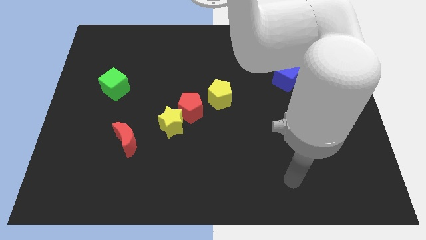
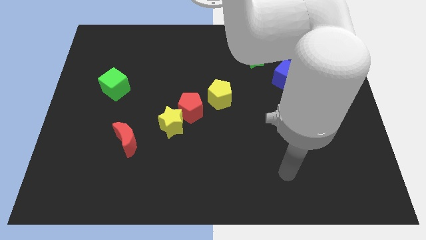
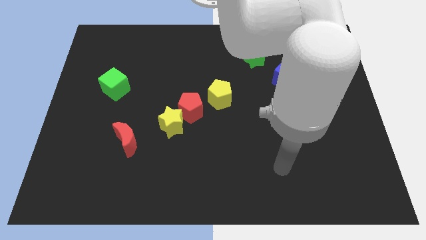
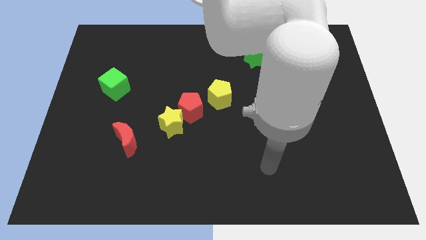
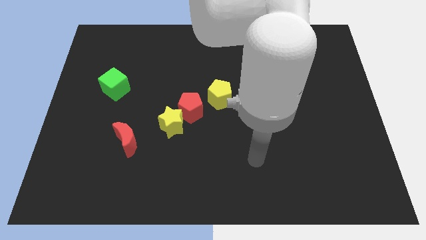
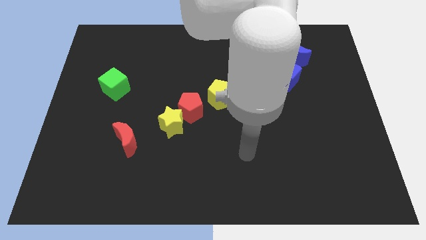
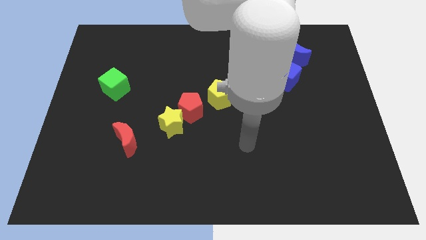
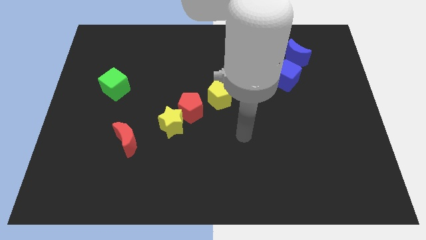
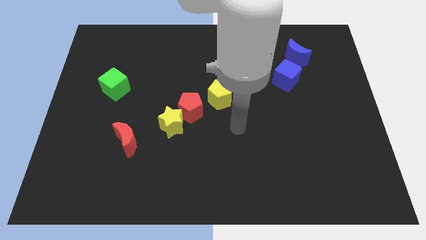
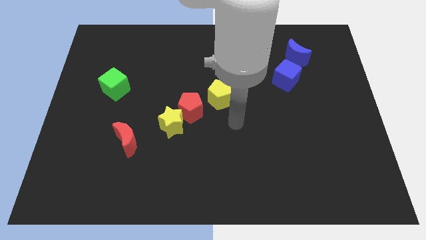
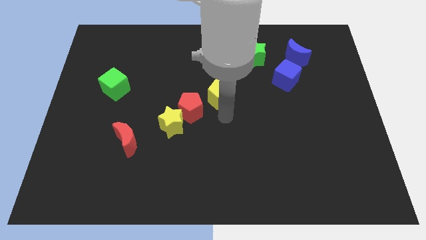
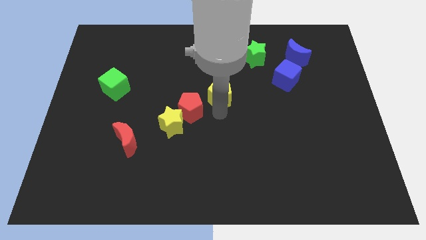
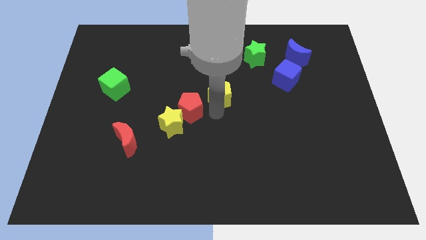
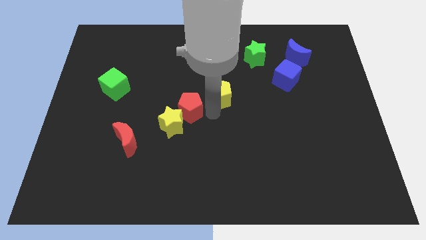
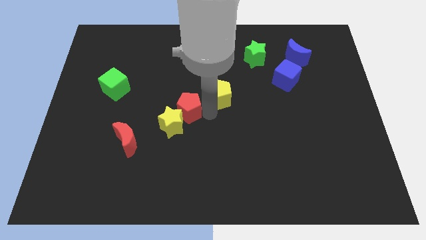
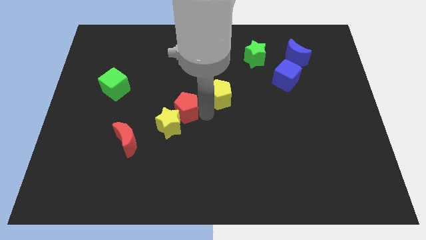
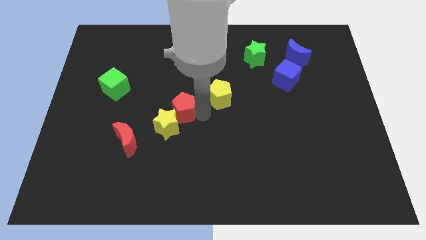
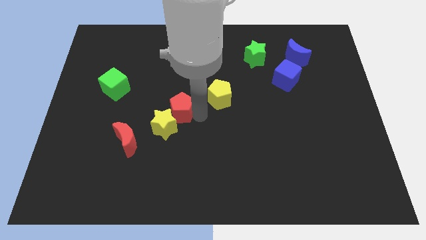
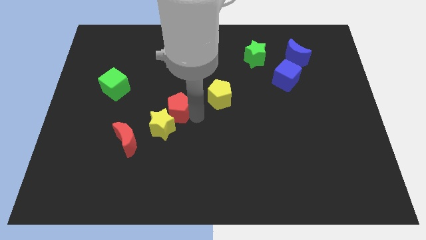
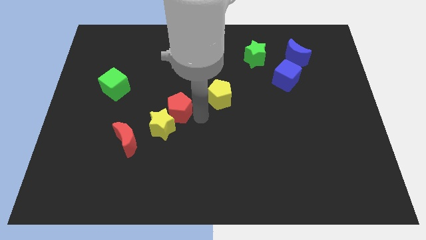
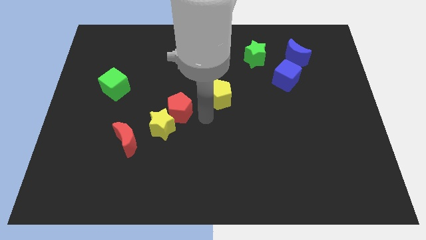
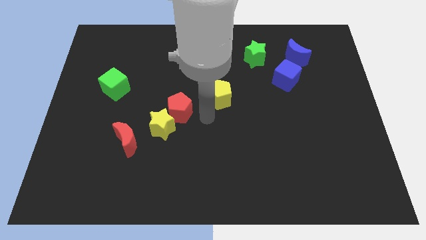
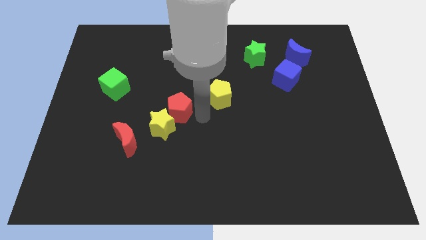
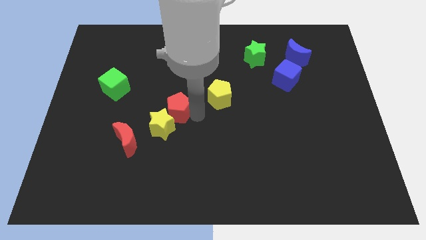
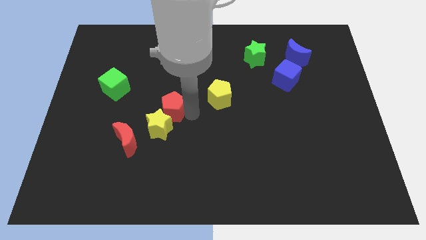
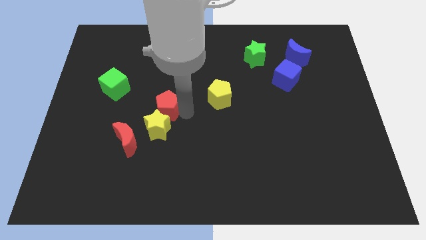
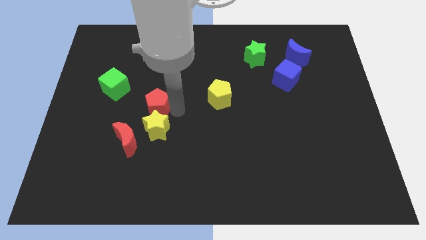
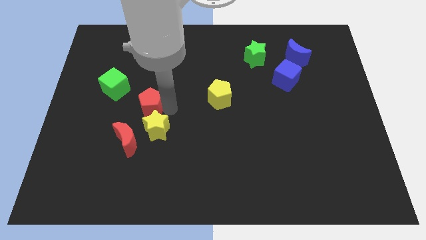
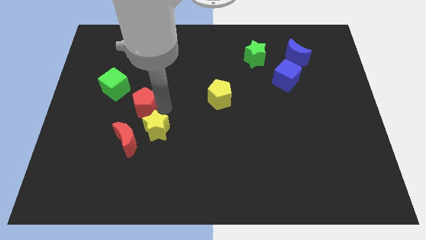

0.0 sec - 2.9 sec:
separate the red pentagon from the yellow star and yellow pentagon

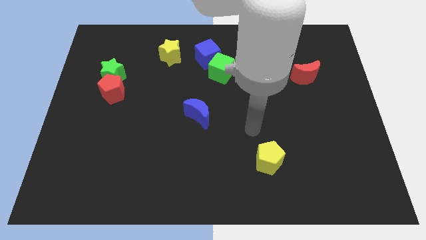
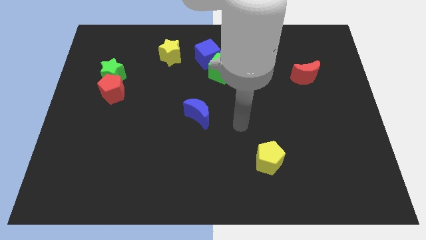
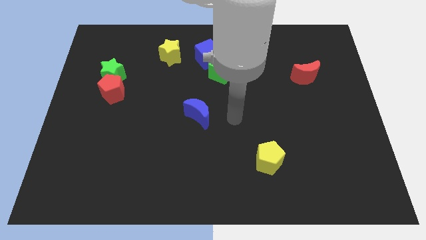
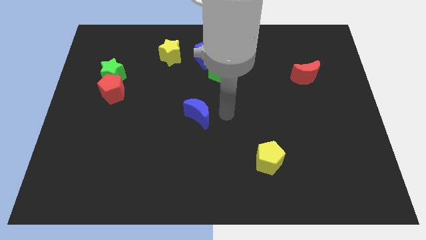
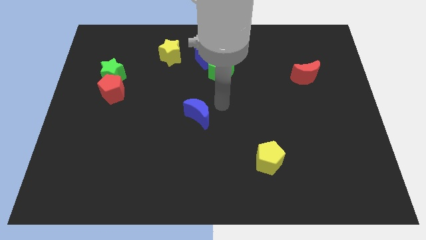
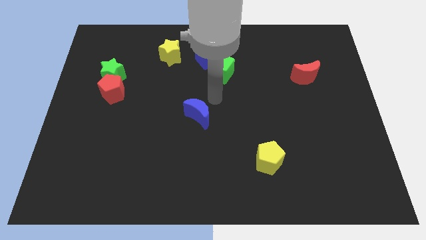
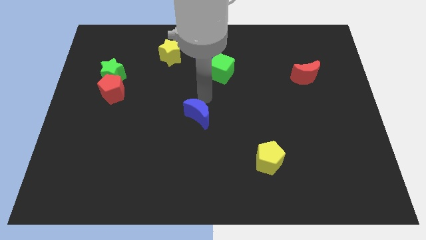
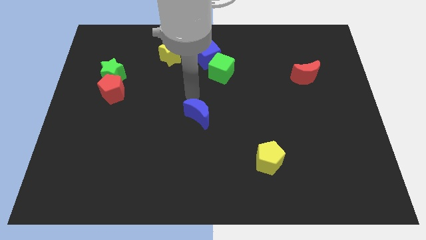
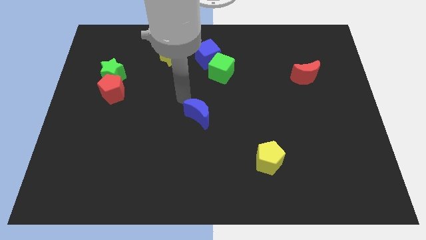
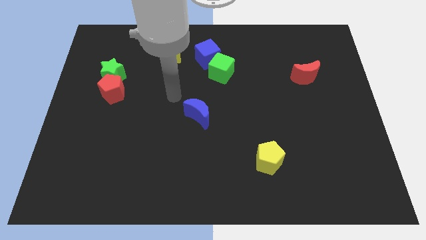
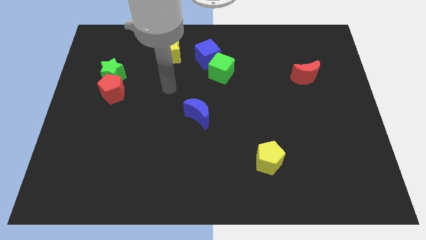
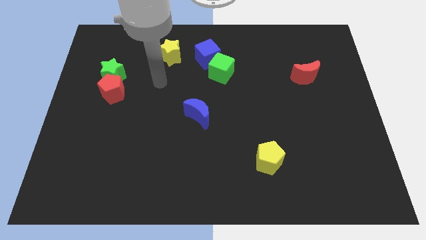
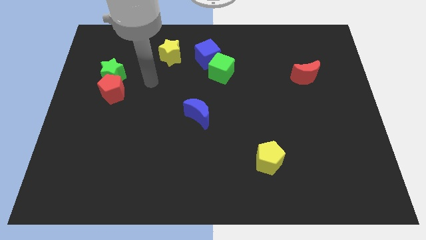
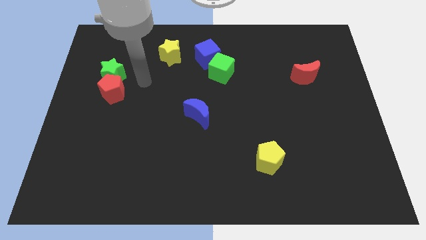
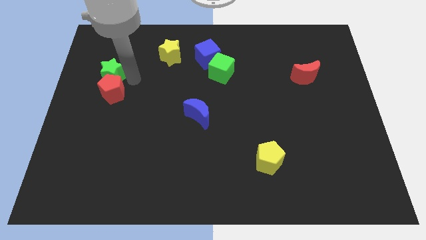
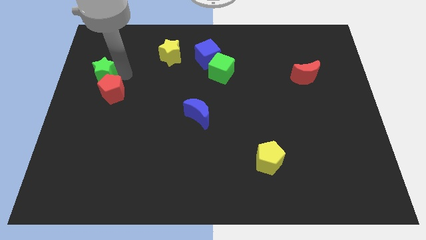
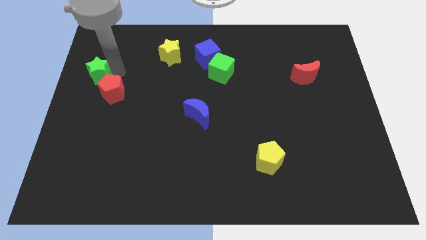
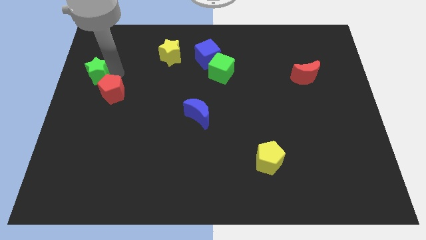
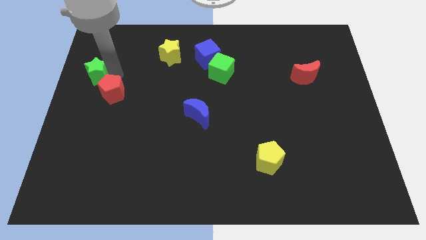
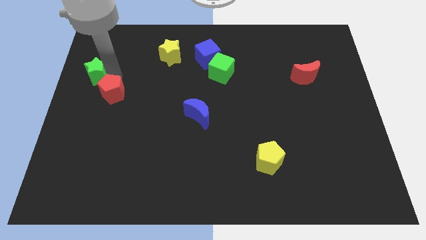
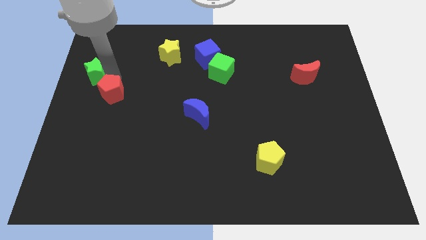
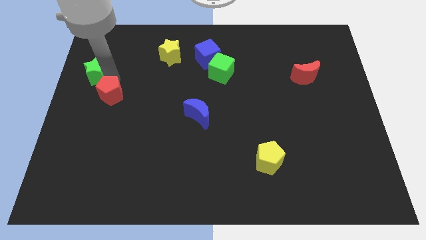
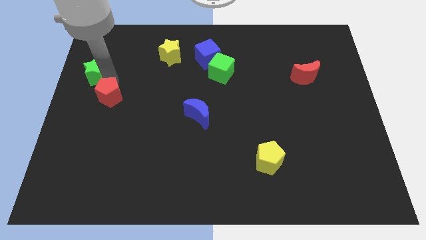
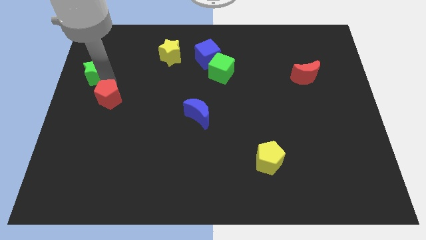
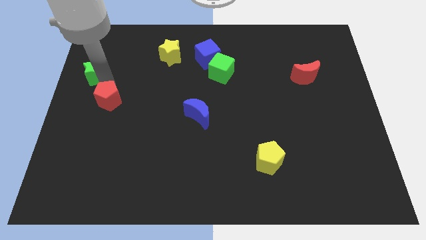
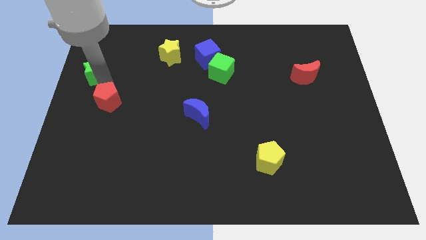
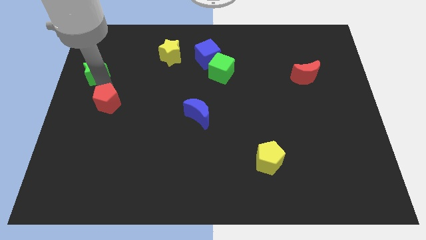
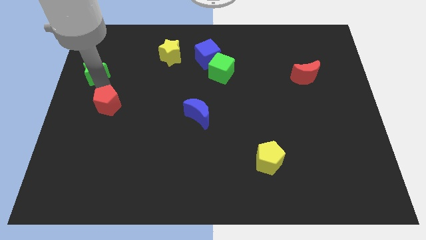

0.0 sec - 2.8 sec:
pull the red pentagon apart from the green star

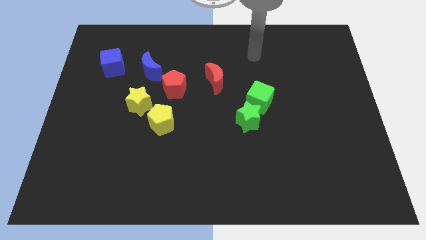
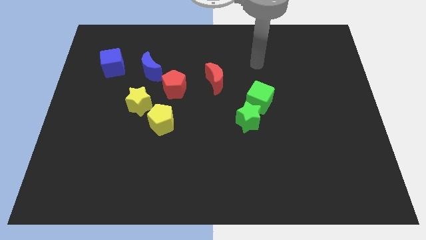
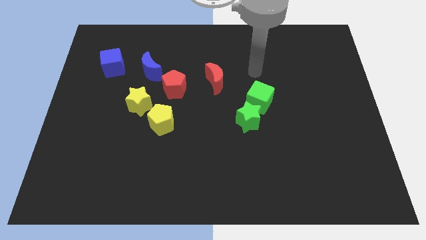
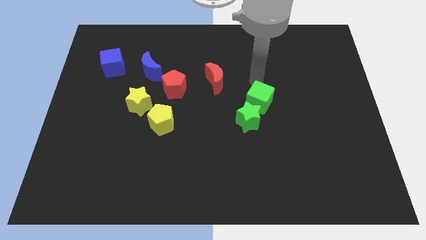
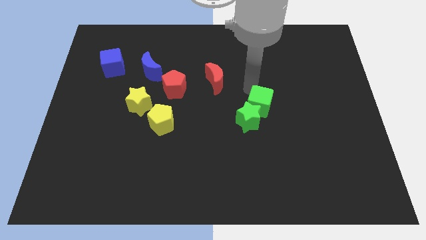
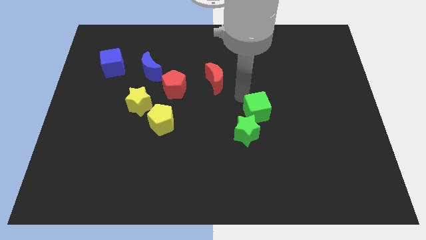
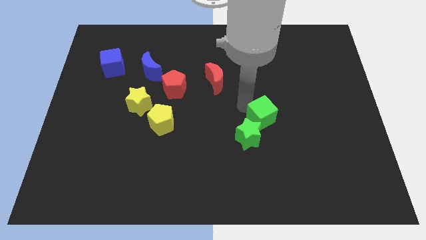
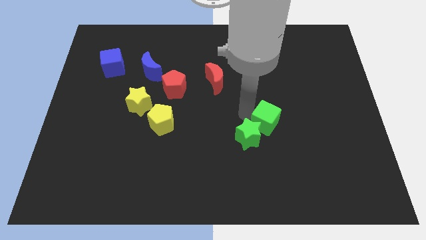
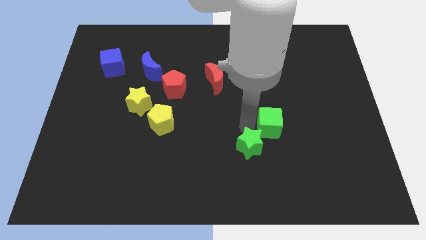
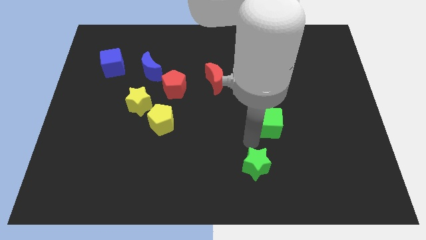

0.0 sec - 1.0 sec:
separate the green cube from the green star

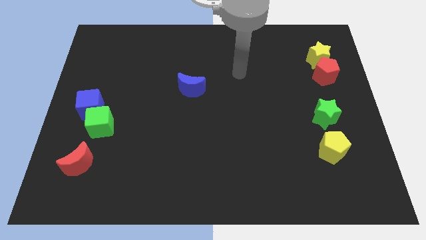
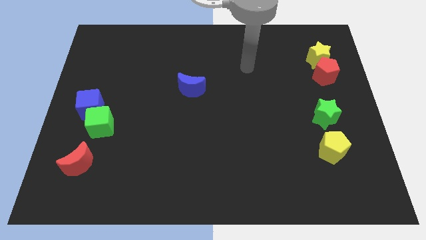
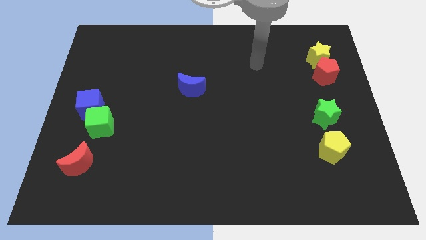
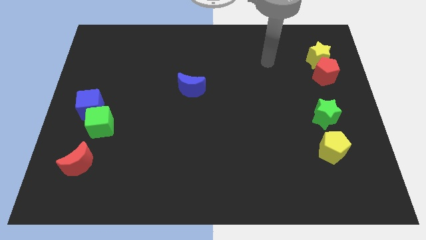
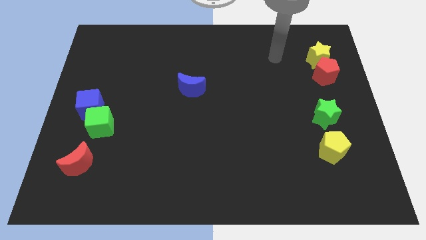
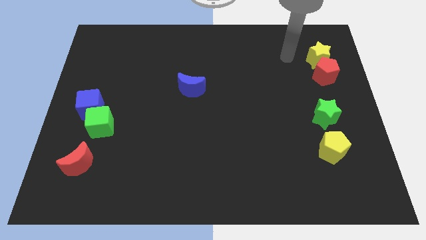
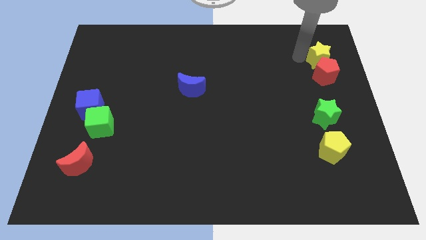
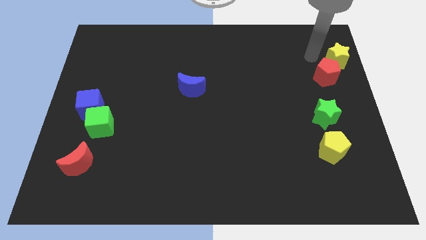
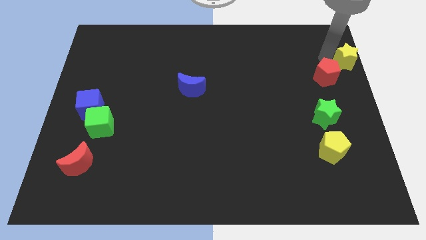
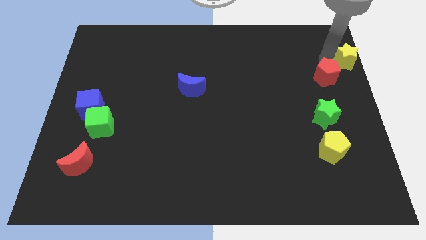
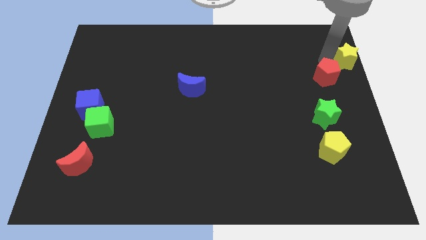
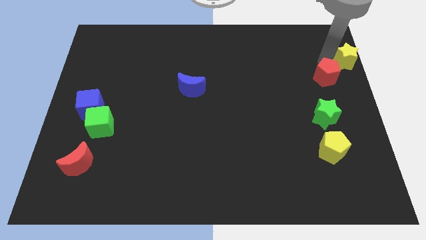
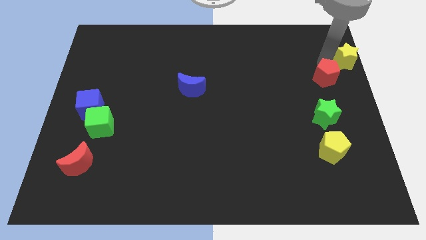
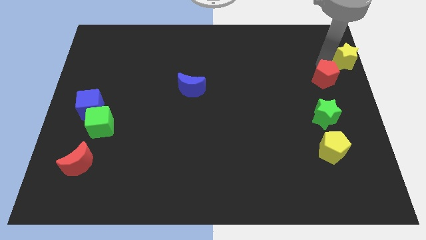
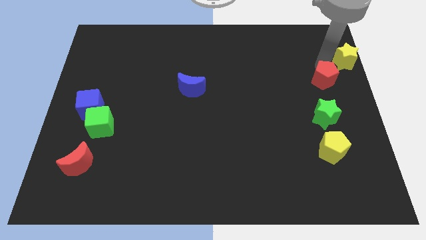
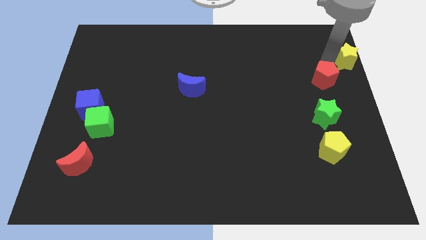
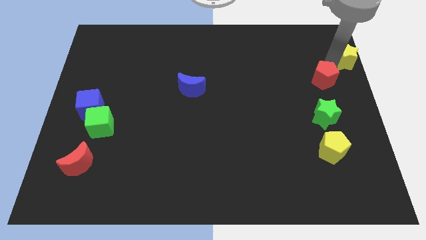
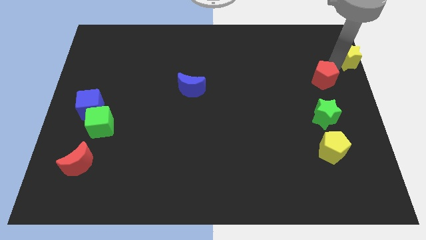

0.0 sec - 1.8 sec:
pull the red pentagon apart from the yellow star

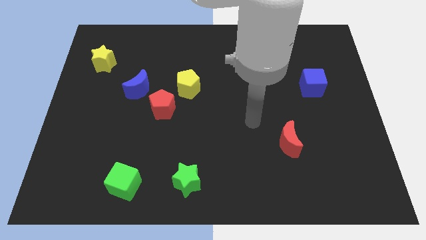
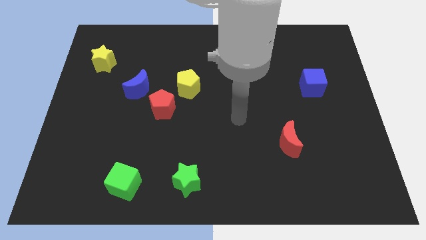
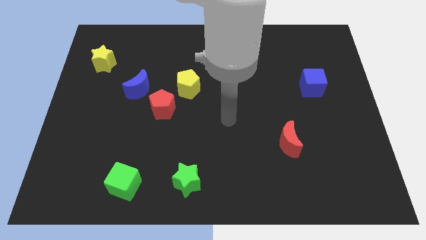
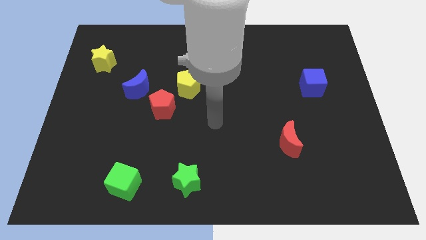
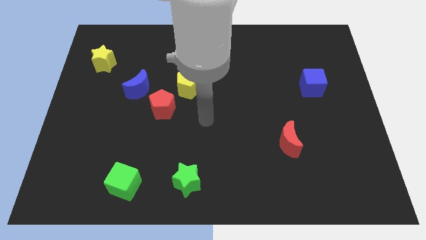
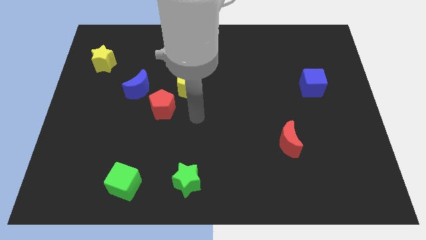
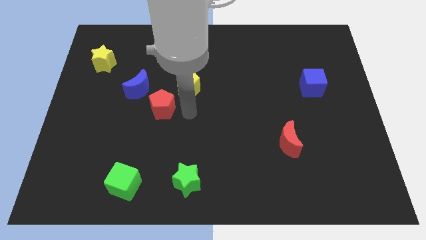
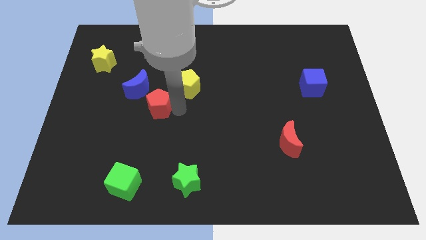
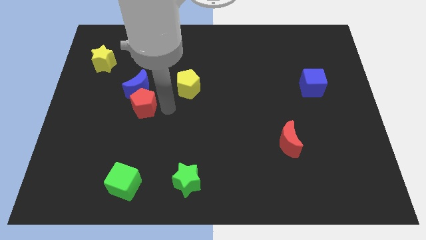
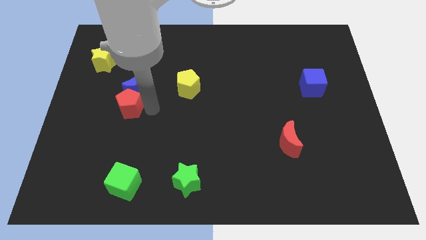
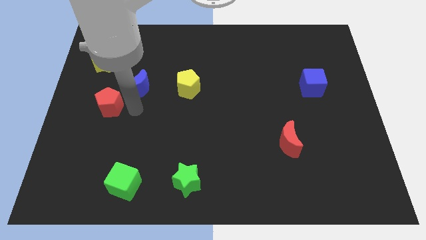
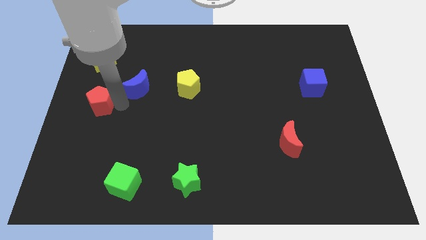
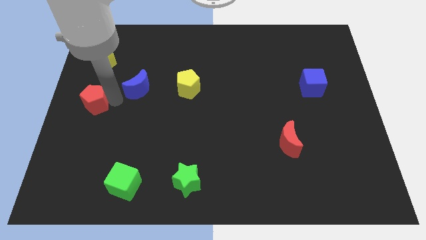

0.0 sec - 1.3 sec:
separate the blue moon from the red pentagon
